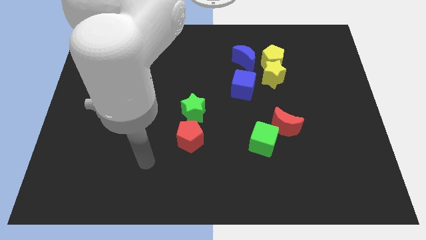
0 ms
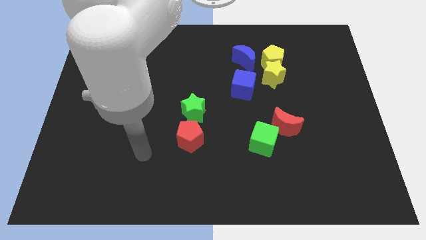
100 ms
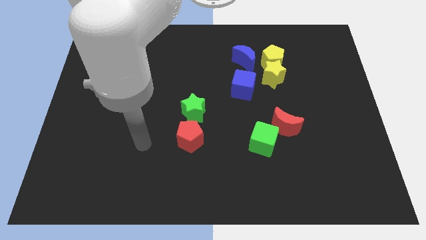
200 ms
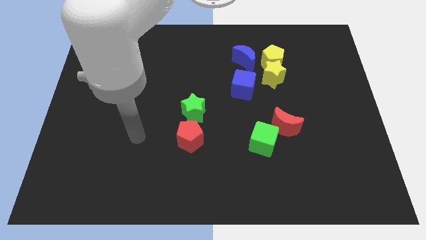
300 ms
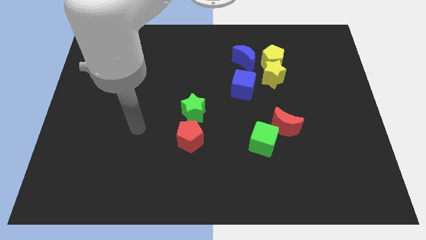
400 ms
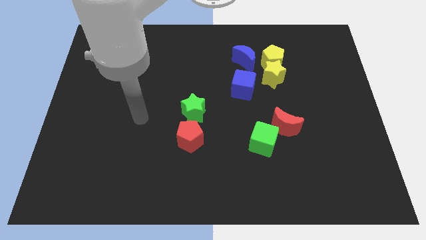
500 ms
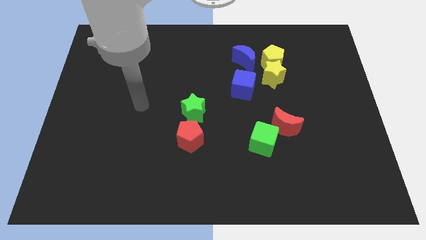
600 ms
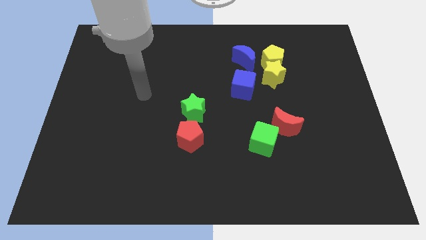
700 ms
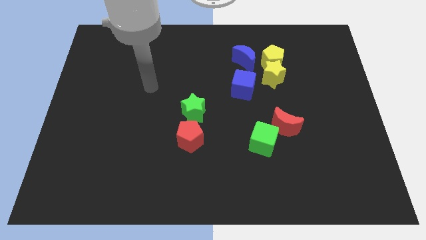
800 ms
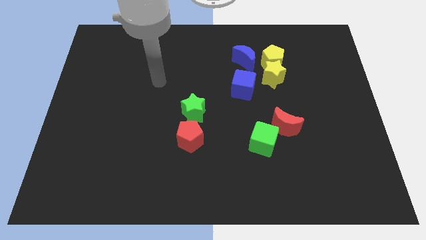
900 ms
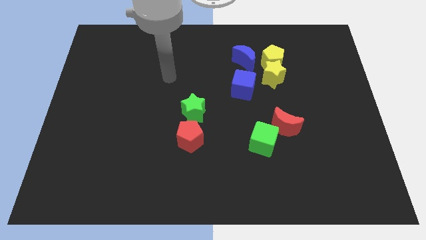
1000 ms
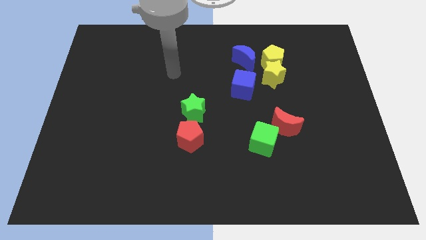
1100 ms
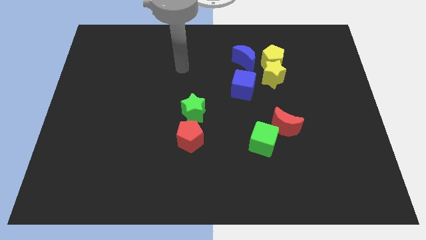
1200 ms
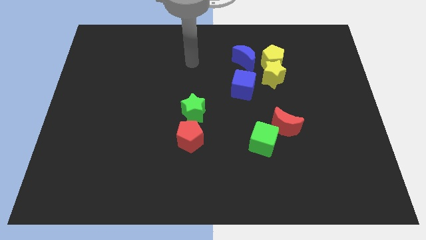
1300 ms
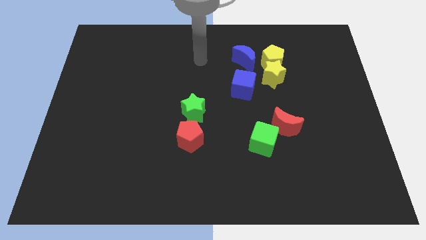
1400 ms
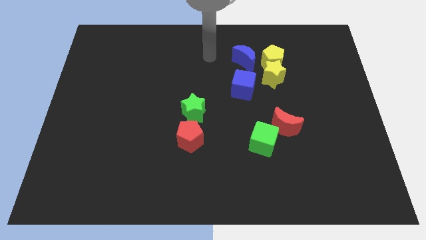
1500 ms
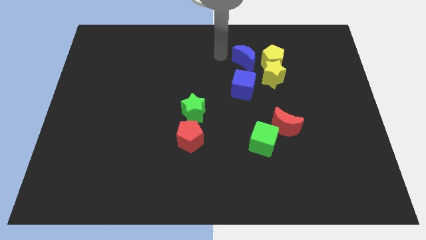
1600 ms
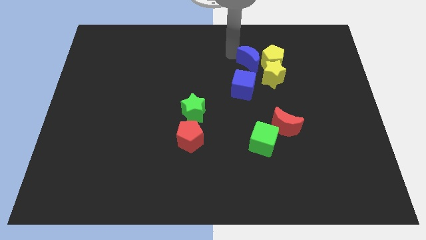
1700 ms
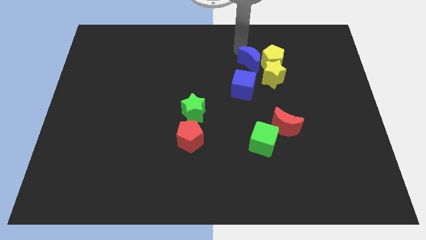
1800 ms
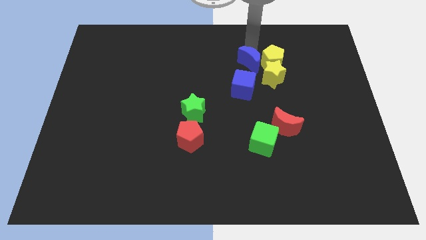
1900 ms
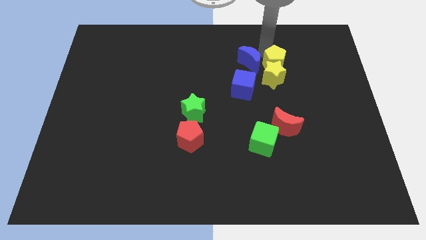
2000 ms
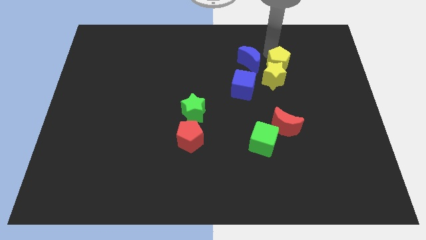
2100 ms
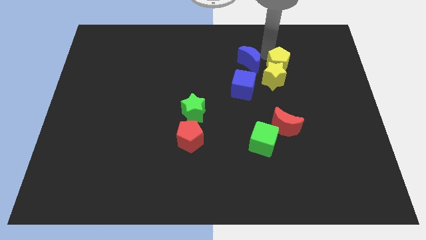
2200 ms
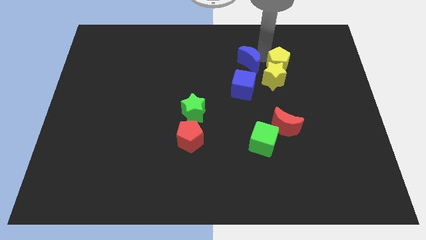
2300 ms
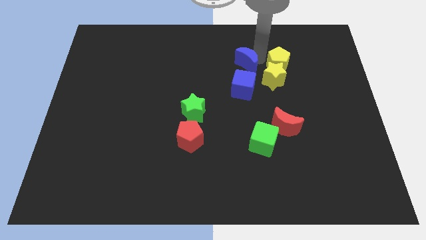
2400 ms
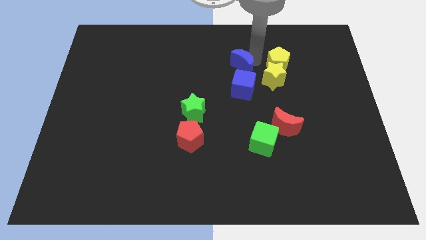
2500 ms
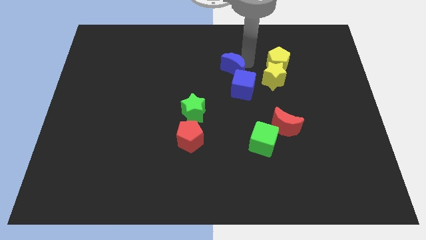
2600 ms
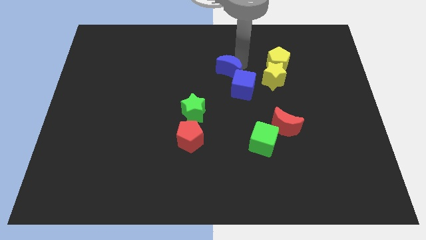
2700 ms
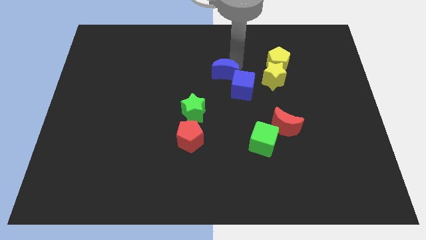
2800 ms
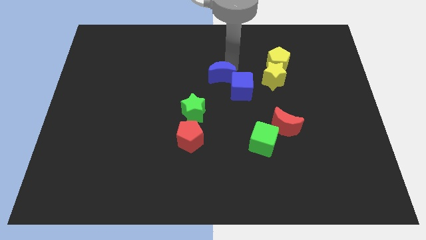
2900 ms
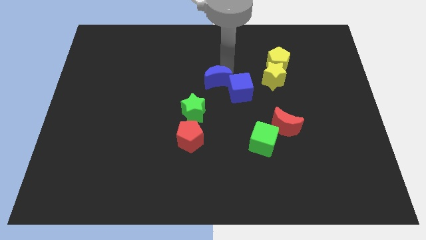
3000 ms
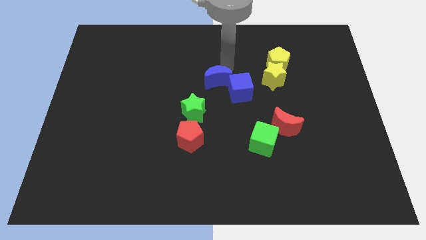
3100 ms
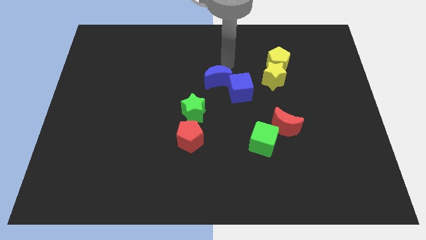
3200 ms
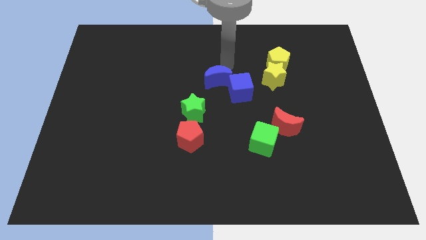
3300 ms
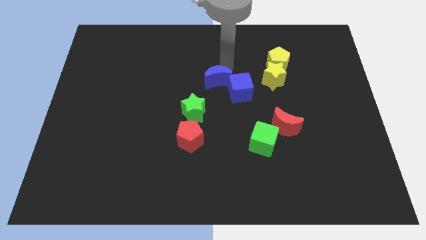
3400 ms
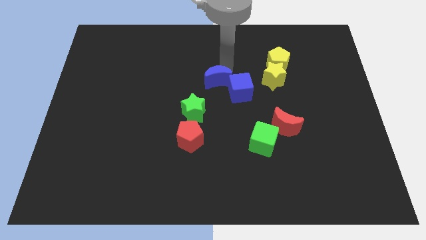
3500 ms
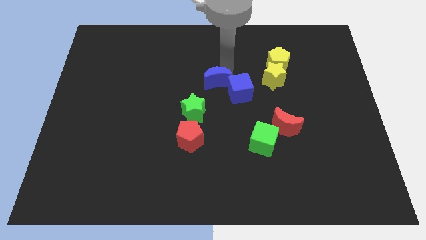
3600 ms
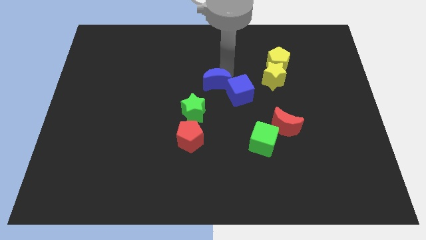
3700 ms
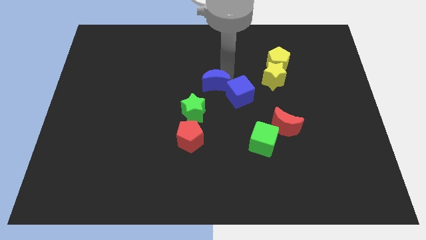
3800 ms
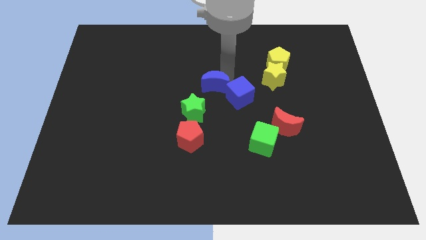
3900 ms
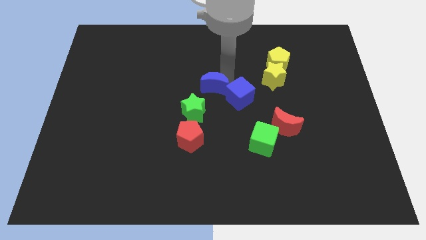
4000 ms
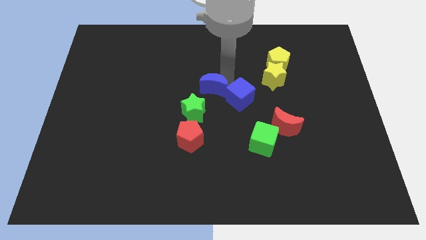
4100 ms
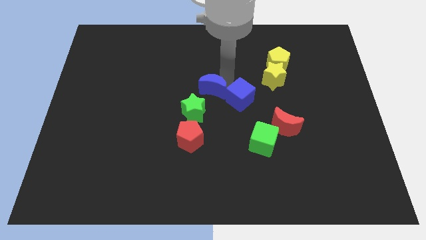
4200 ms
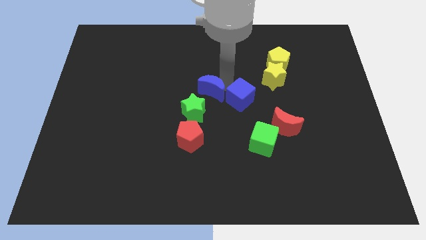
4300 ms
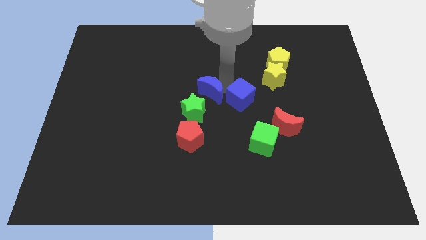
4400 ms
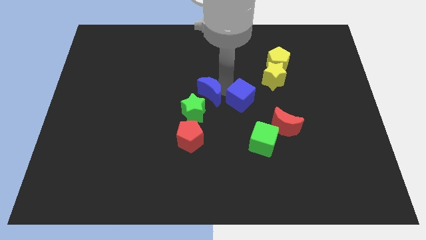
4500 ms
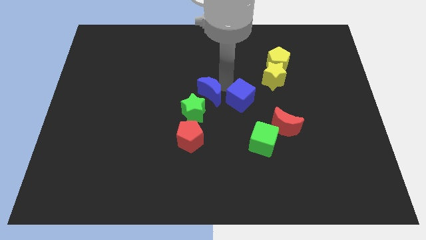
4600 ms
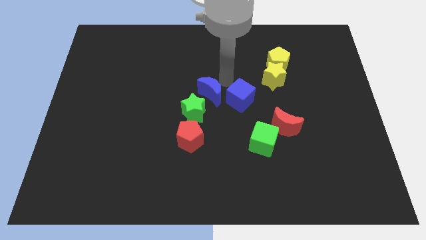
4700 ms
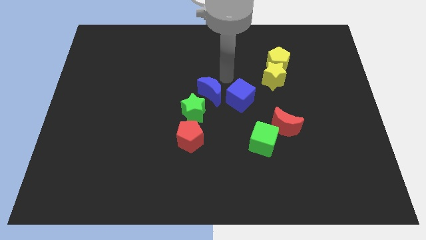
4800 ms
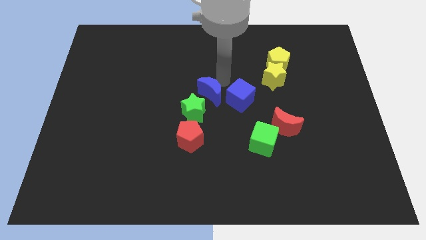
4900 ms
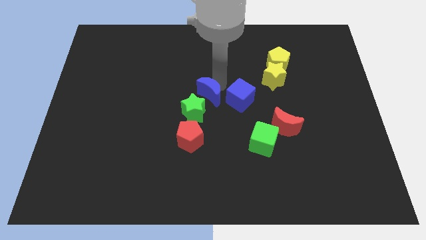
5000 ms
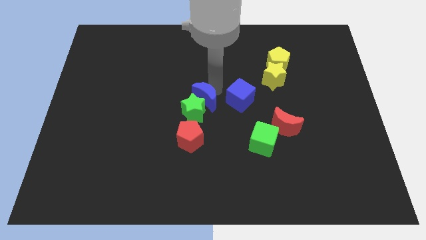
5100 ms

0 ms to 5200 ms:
put the blue moon next to the green star

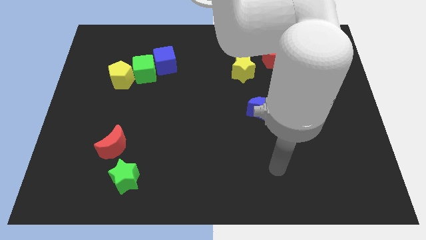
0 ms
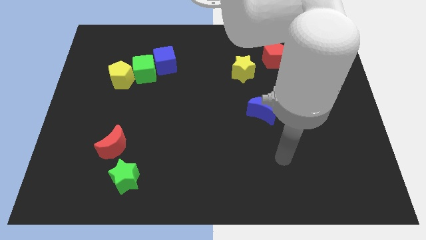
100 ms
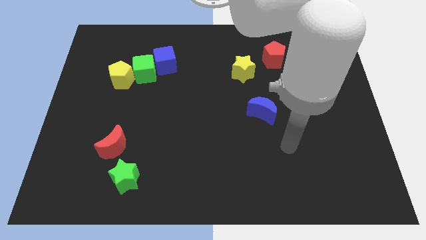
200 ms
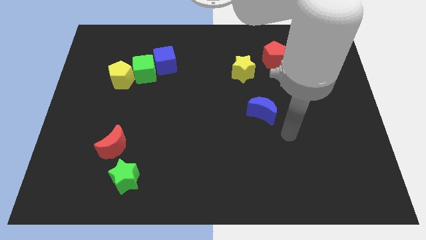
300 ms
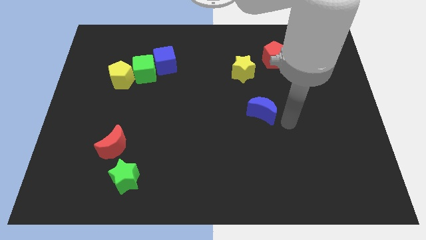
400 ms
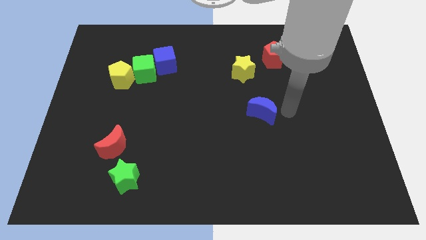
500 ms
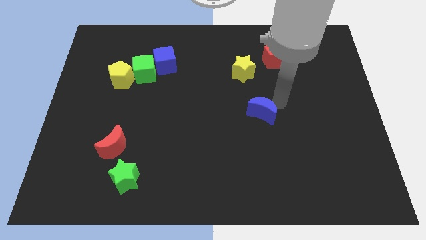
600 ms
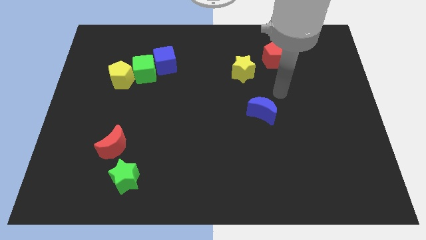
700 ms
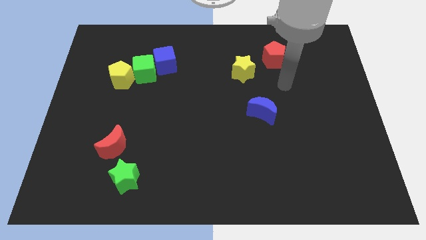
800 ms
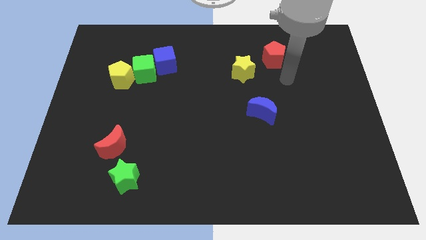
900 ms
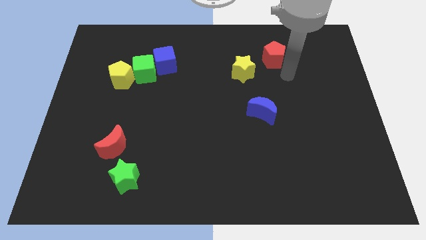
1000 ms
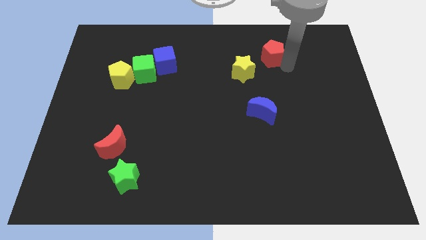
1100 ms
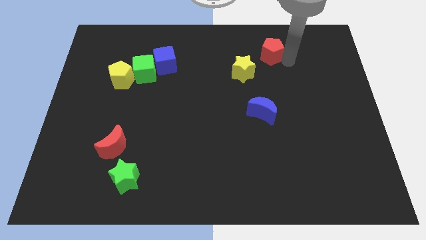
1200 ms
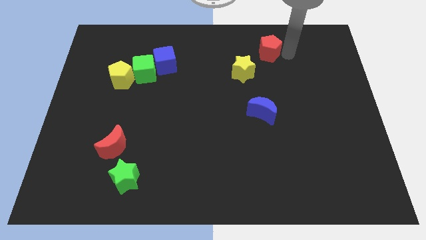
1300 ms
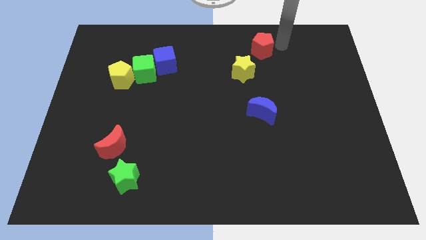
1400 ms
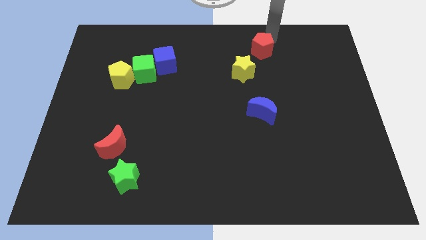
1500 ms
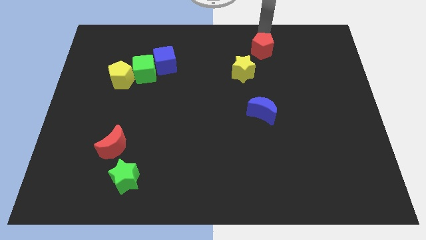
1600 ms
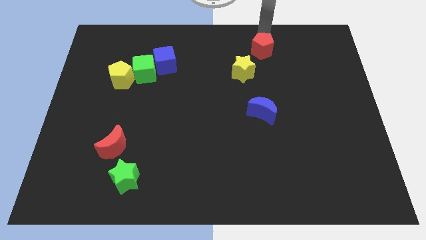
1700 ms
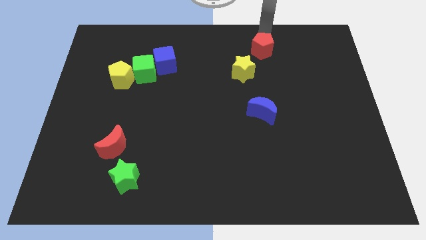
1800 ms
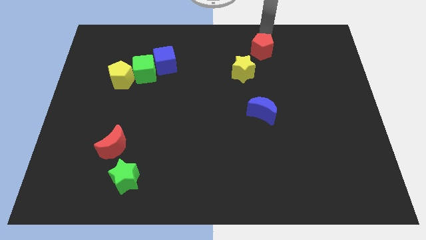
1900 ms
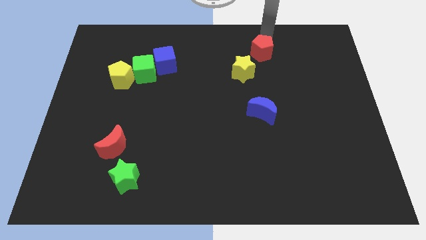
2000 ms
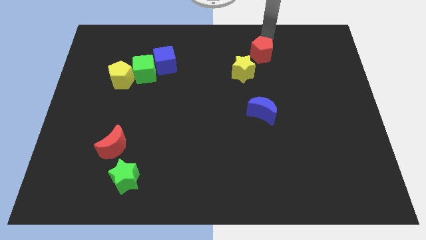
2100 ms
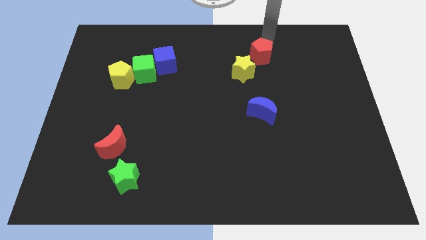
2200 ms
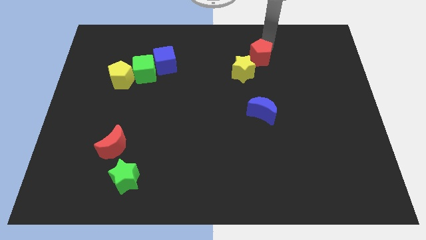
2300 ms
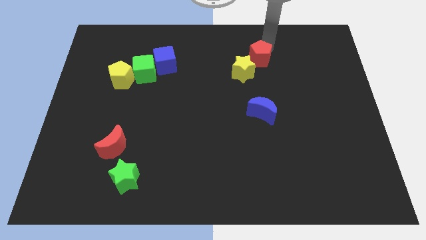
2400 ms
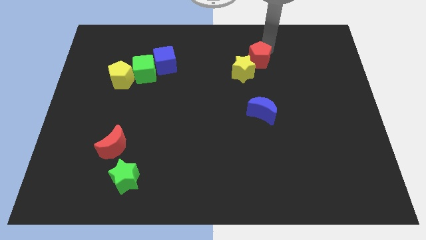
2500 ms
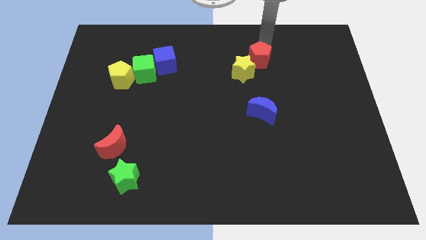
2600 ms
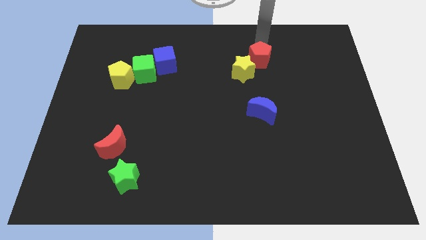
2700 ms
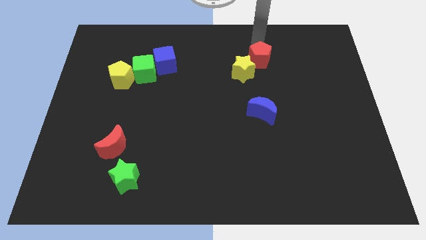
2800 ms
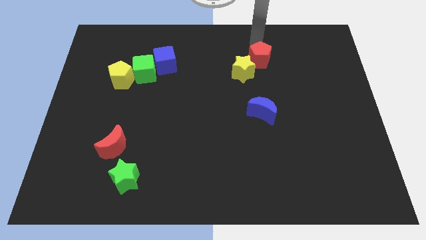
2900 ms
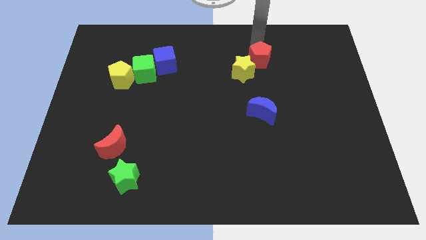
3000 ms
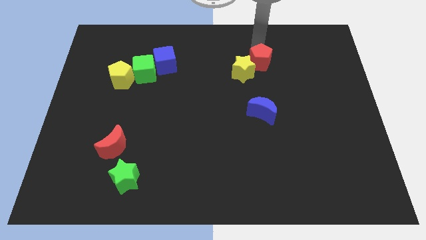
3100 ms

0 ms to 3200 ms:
put the red pentagon next to the yellow star
